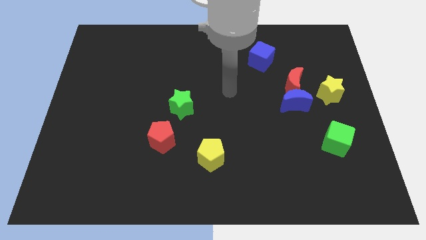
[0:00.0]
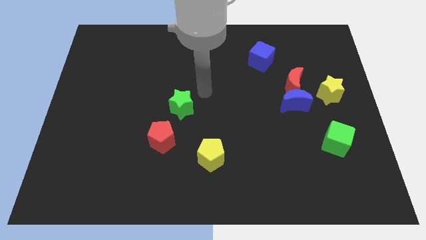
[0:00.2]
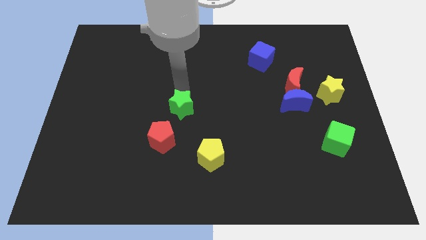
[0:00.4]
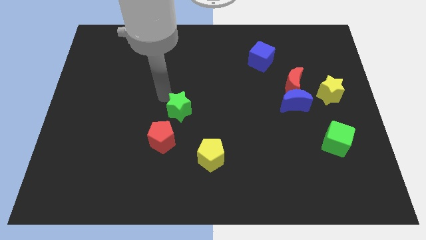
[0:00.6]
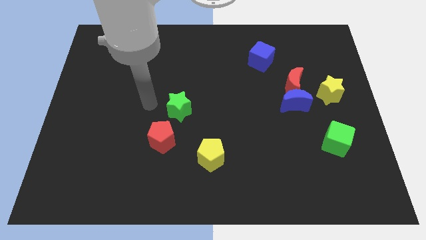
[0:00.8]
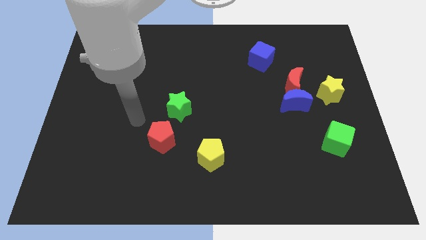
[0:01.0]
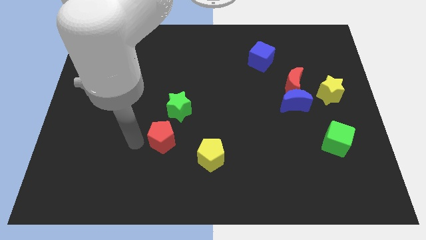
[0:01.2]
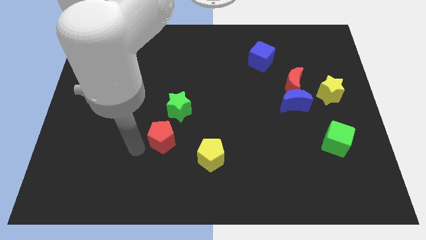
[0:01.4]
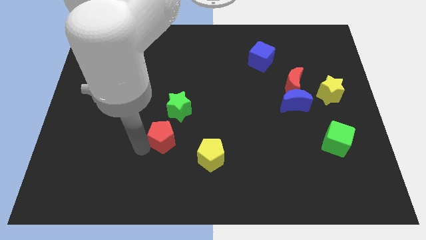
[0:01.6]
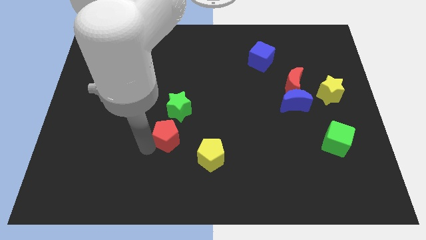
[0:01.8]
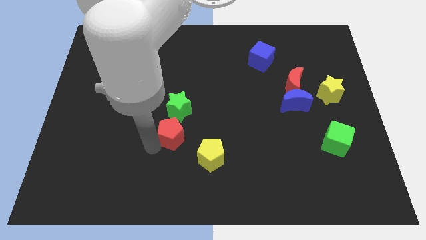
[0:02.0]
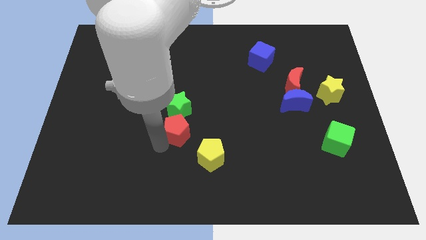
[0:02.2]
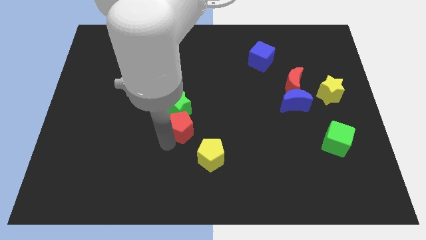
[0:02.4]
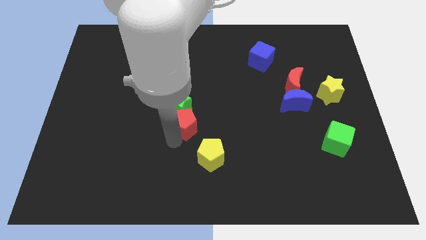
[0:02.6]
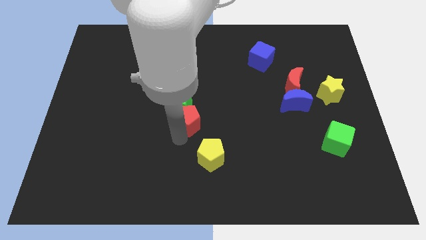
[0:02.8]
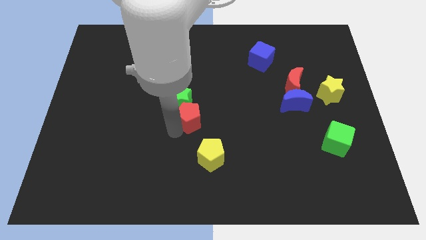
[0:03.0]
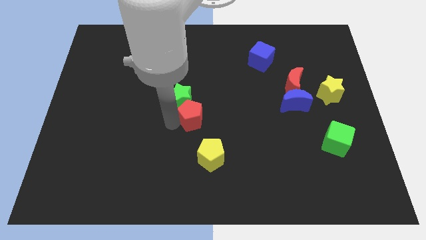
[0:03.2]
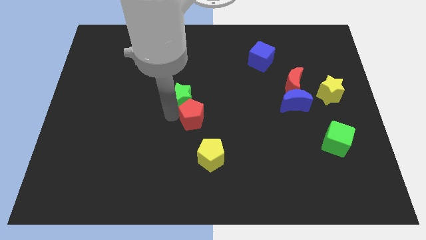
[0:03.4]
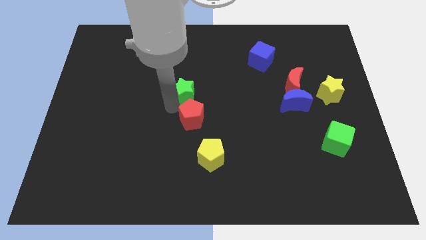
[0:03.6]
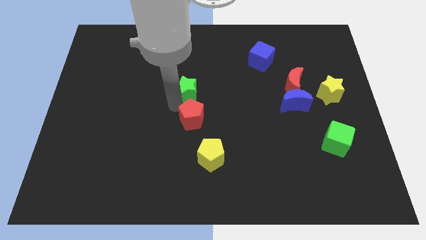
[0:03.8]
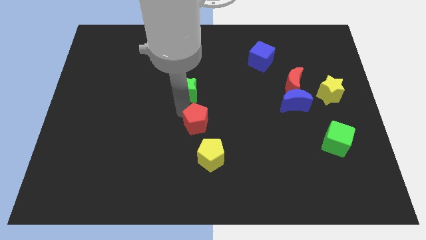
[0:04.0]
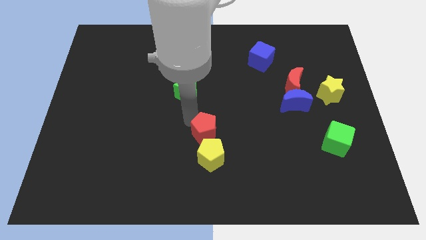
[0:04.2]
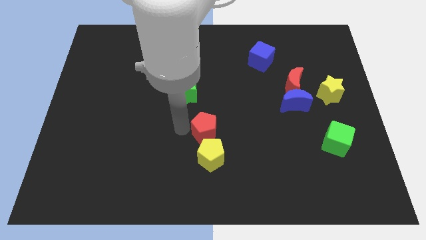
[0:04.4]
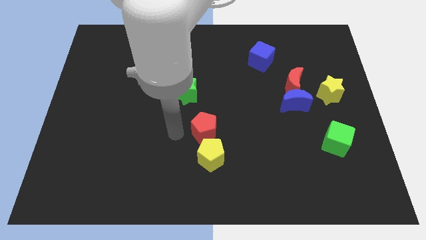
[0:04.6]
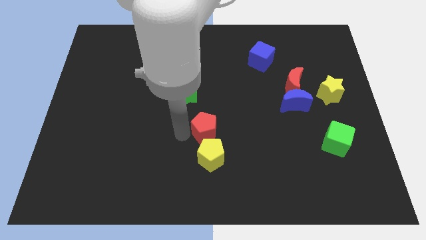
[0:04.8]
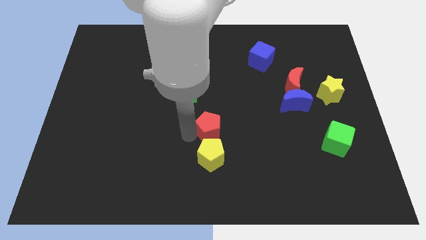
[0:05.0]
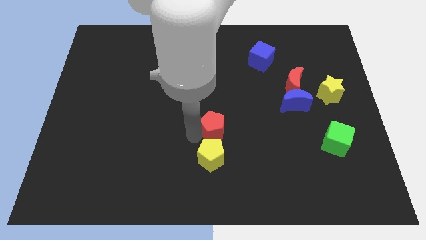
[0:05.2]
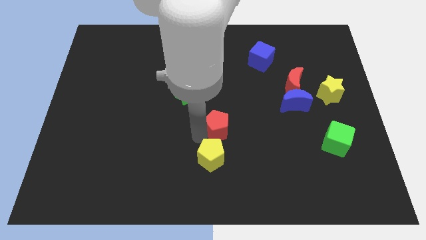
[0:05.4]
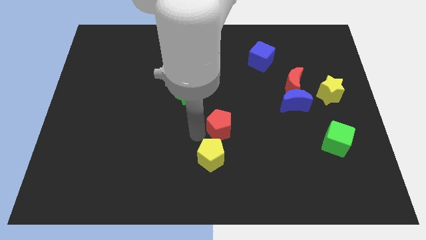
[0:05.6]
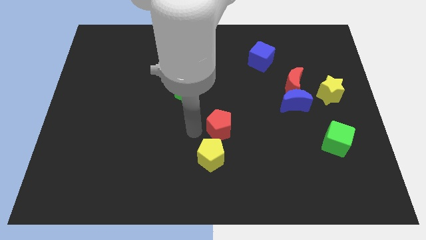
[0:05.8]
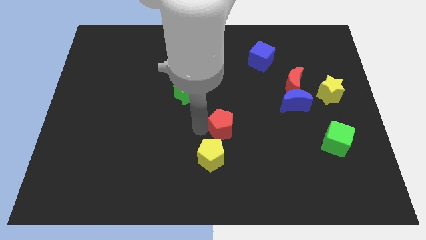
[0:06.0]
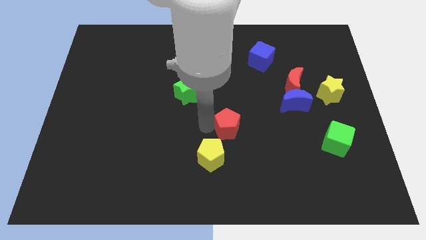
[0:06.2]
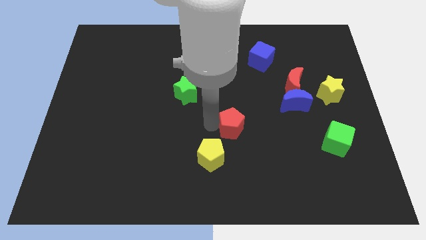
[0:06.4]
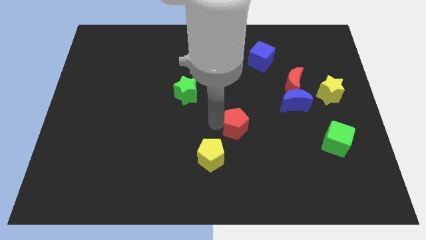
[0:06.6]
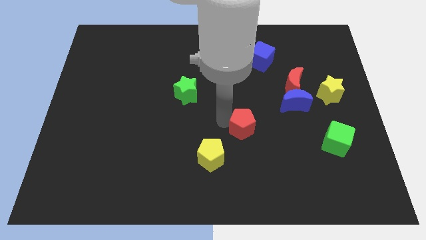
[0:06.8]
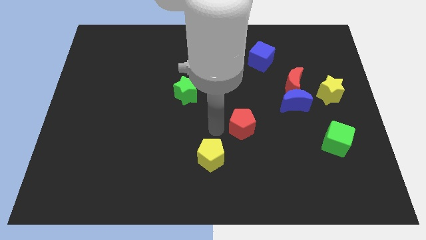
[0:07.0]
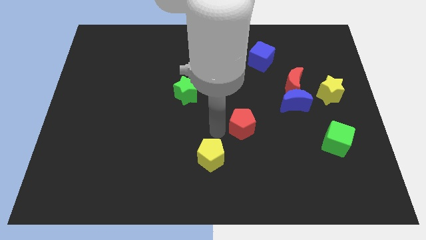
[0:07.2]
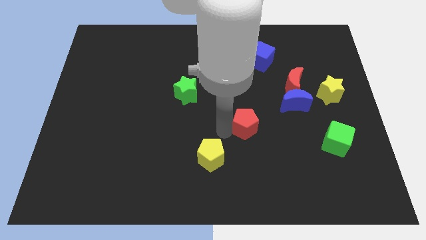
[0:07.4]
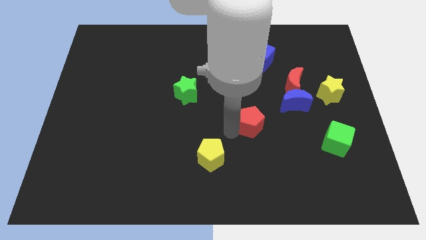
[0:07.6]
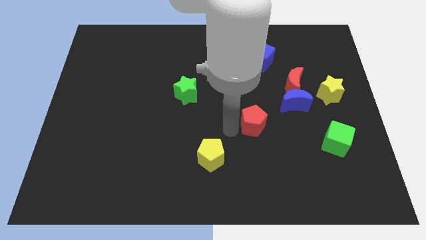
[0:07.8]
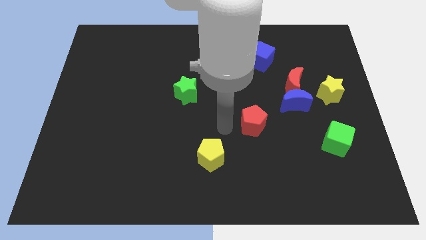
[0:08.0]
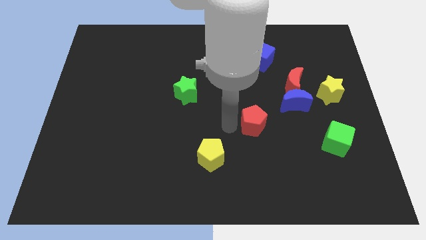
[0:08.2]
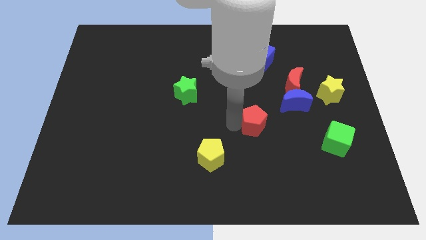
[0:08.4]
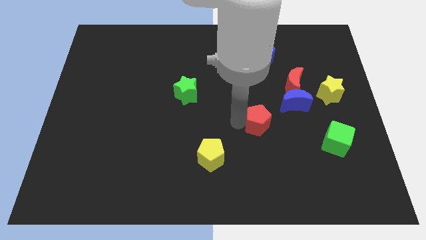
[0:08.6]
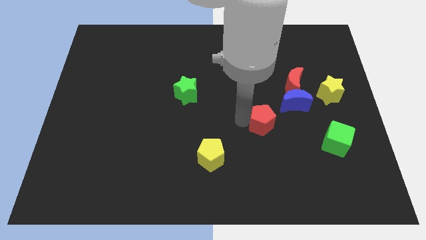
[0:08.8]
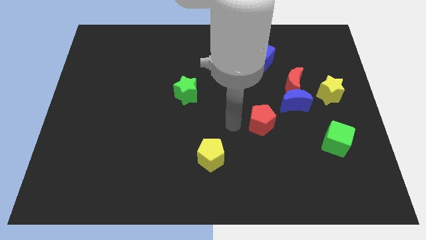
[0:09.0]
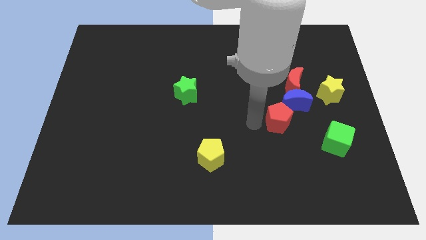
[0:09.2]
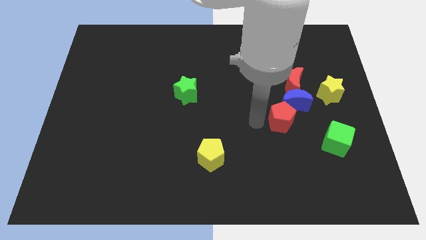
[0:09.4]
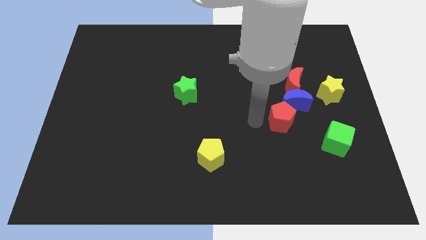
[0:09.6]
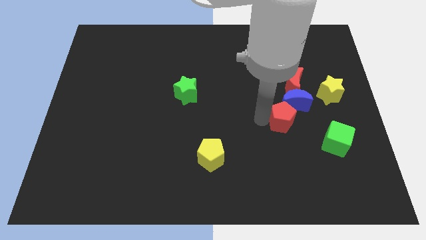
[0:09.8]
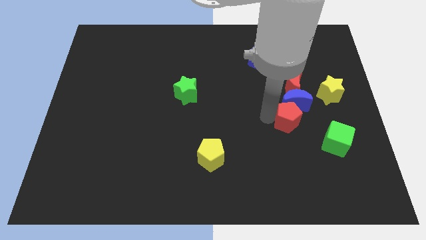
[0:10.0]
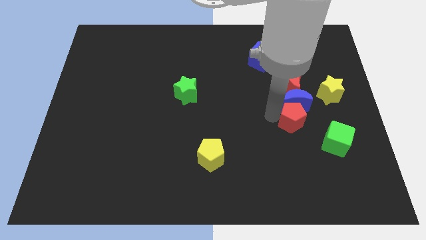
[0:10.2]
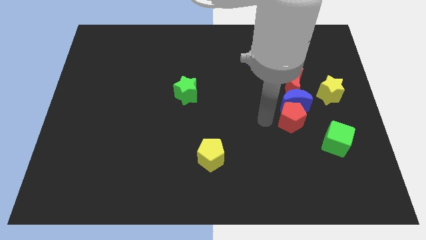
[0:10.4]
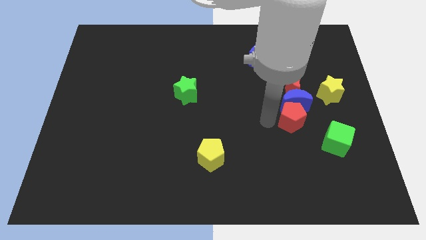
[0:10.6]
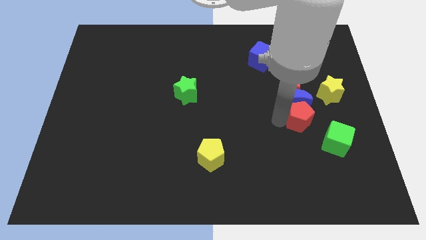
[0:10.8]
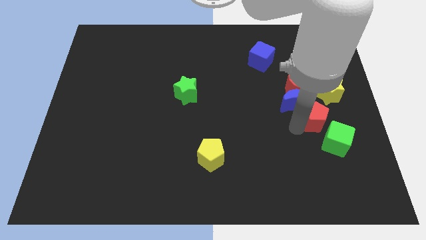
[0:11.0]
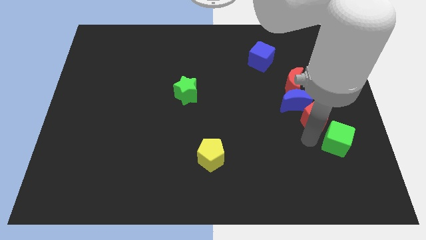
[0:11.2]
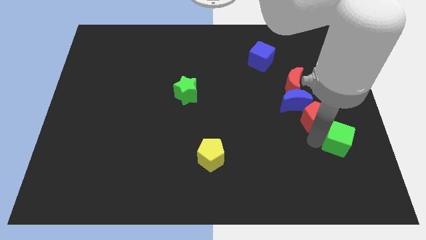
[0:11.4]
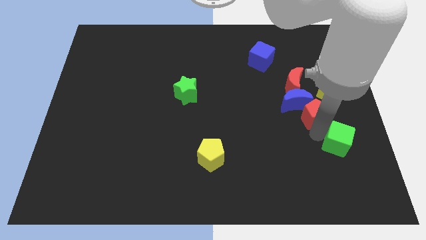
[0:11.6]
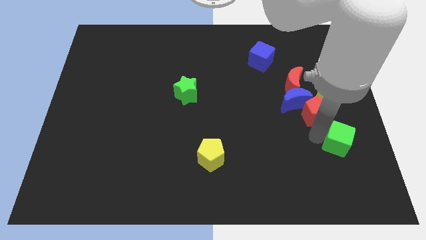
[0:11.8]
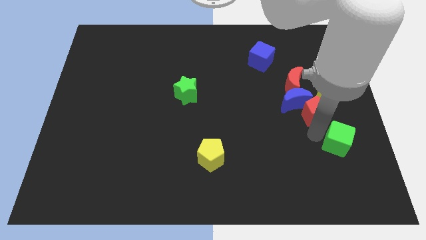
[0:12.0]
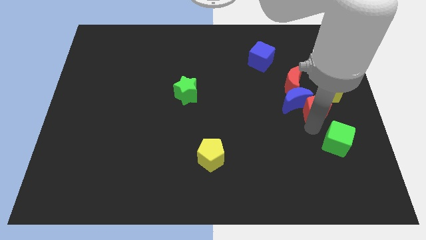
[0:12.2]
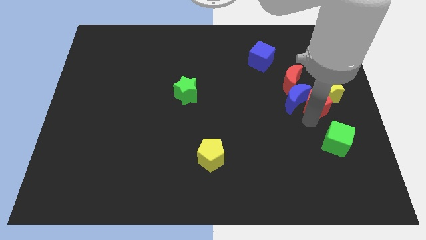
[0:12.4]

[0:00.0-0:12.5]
push the red pentagon to the top right of the blue moon
